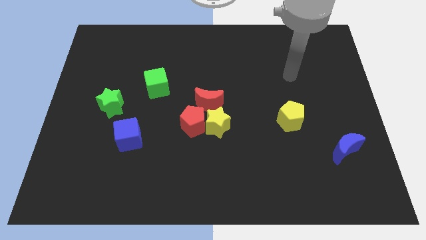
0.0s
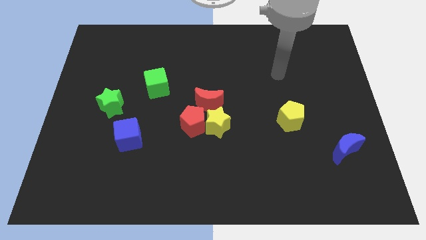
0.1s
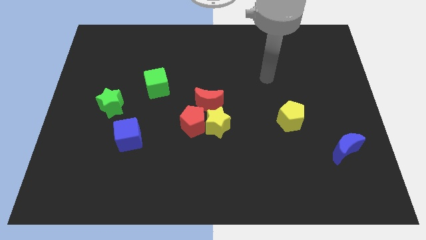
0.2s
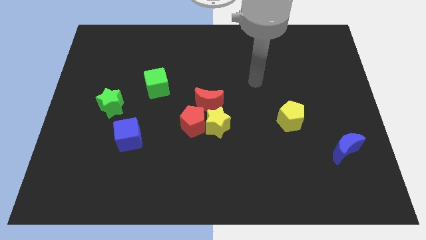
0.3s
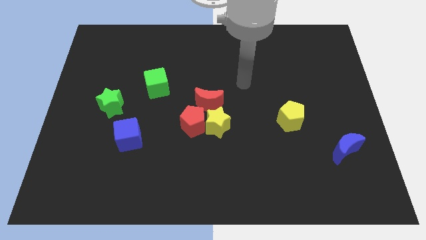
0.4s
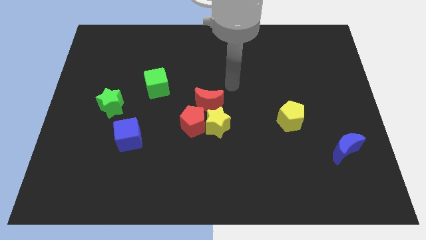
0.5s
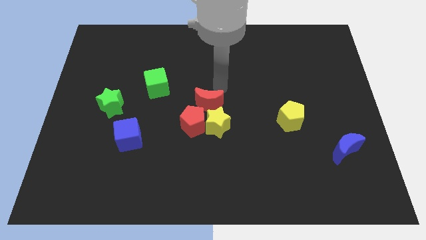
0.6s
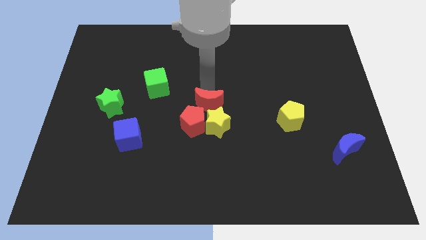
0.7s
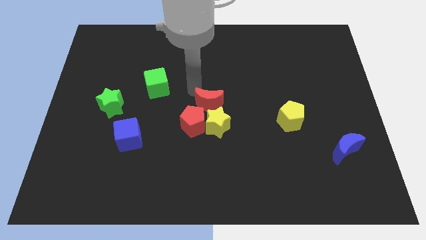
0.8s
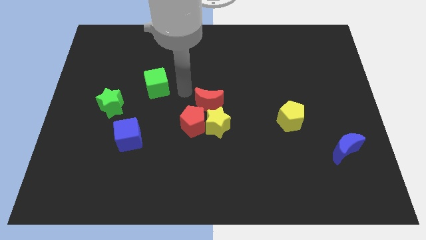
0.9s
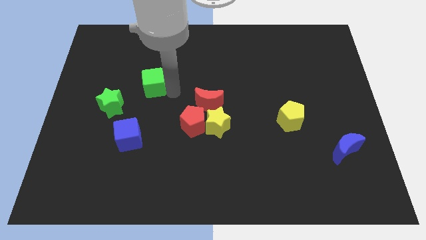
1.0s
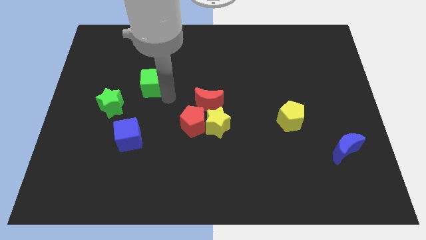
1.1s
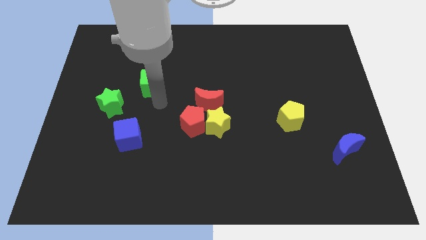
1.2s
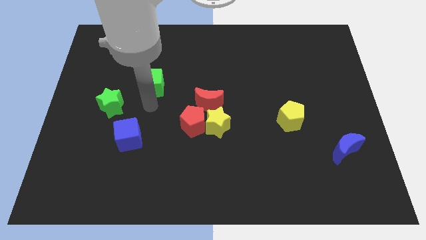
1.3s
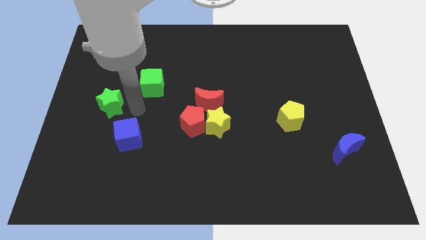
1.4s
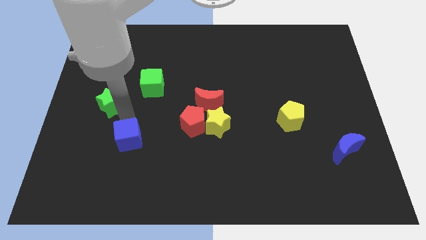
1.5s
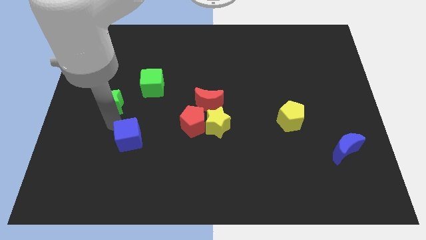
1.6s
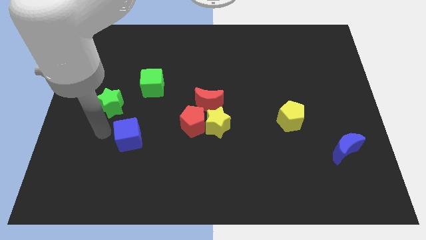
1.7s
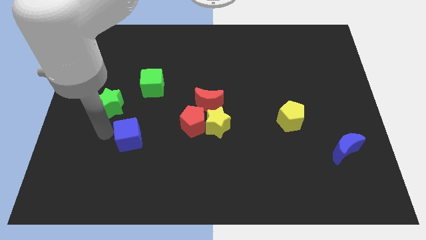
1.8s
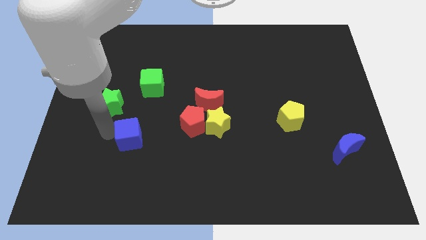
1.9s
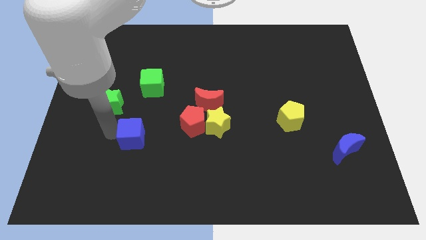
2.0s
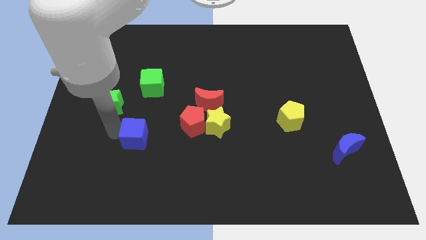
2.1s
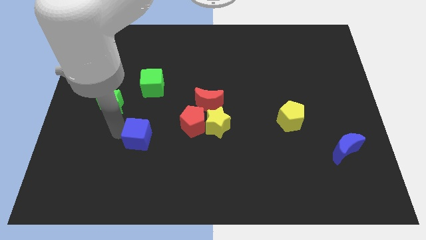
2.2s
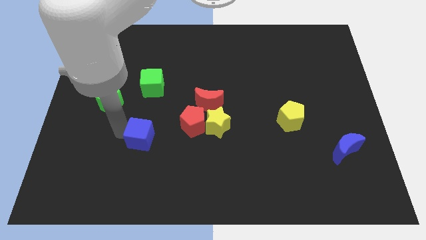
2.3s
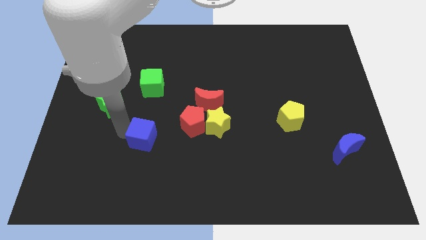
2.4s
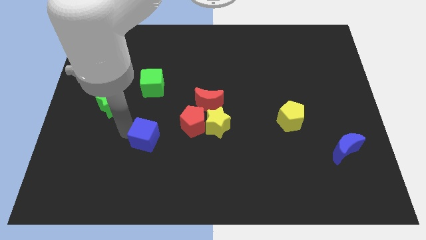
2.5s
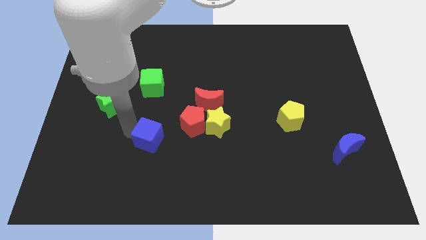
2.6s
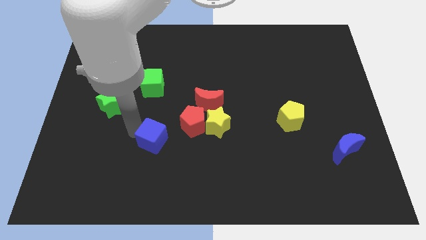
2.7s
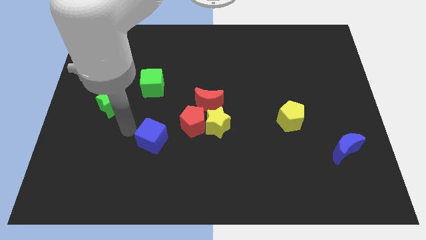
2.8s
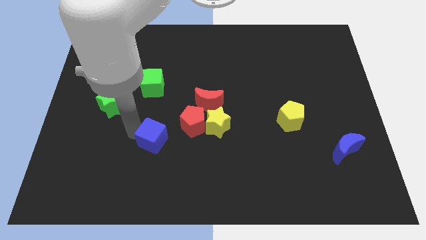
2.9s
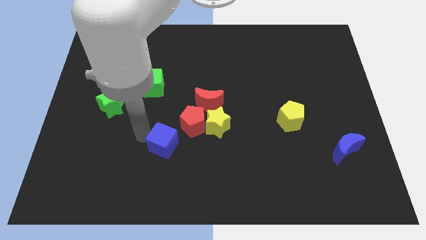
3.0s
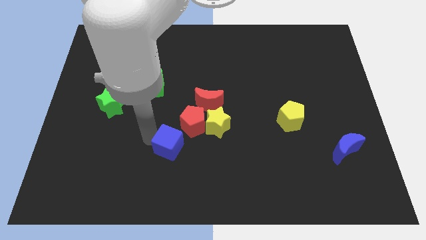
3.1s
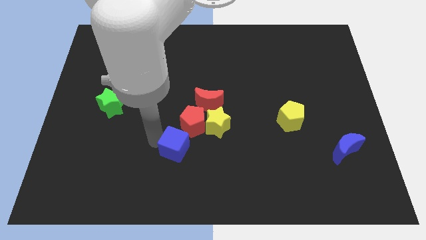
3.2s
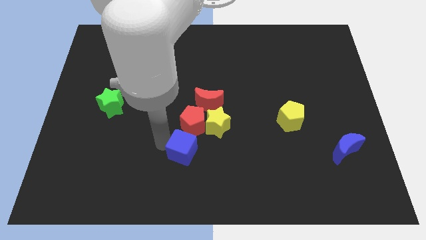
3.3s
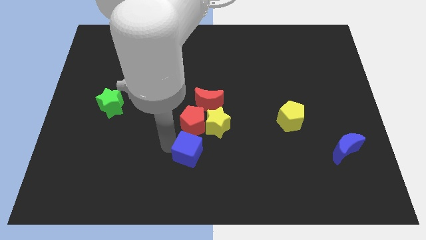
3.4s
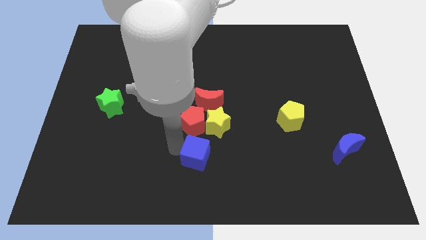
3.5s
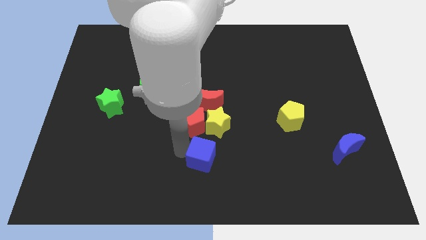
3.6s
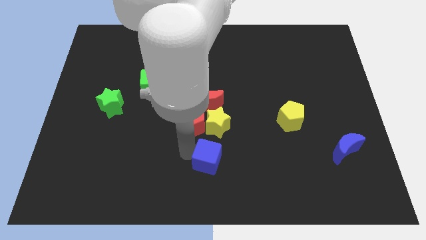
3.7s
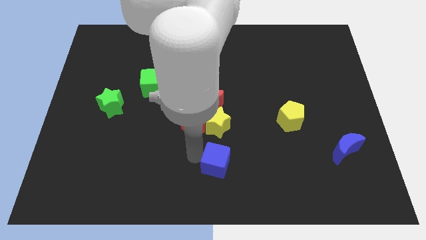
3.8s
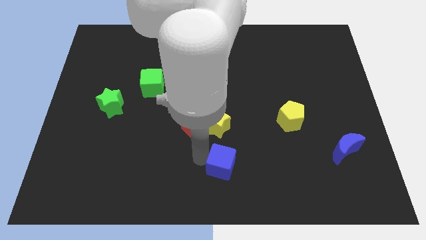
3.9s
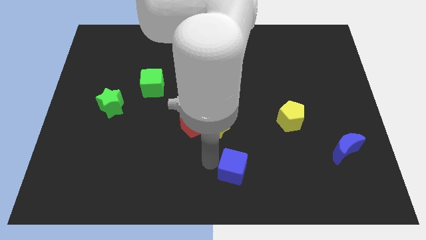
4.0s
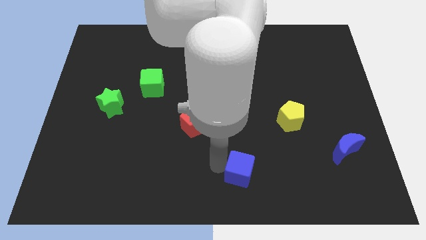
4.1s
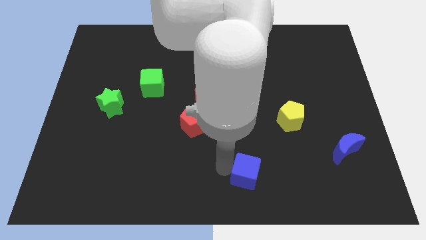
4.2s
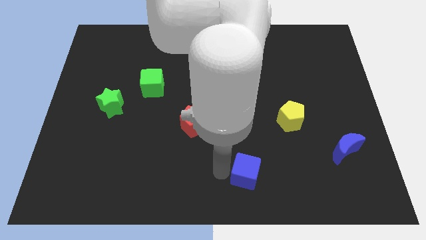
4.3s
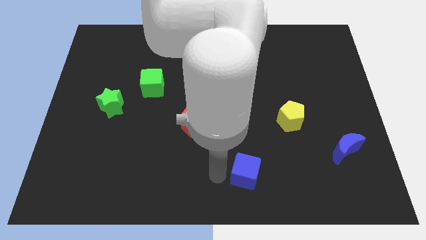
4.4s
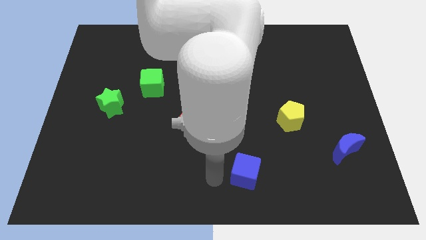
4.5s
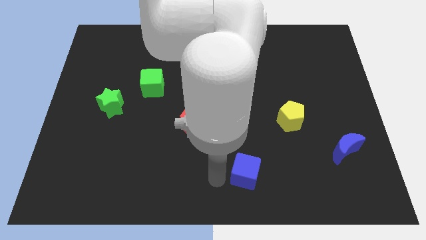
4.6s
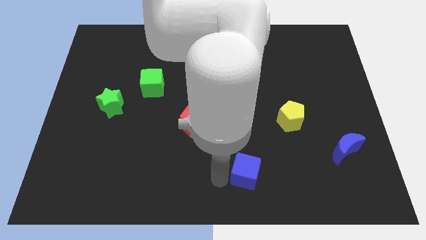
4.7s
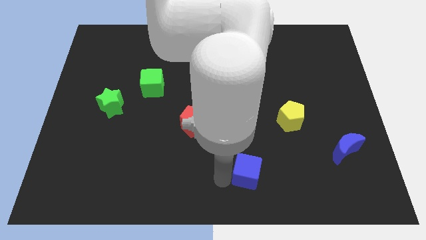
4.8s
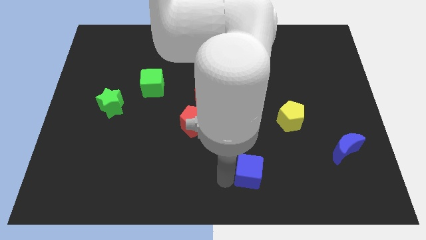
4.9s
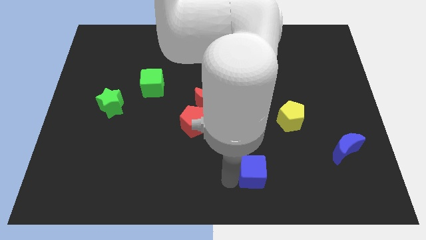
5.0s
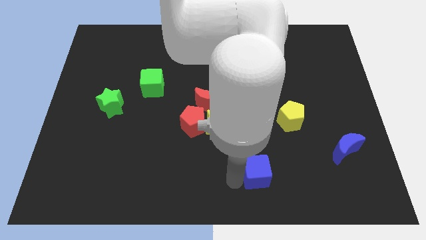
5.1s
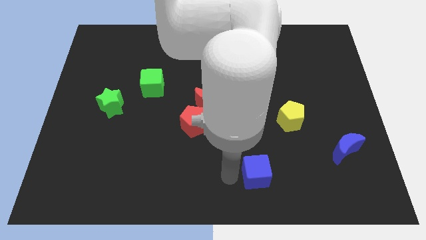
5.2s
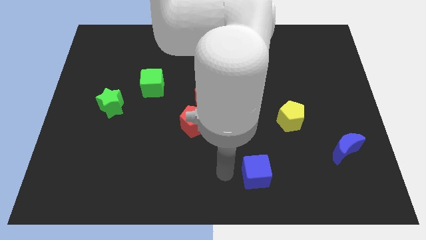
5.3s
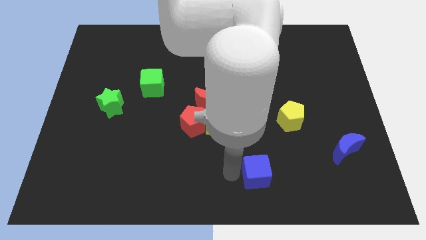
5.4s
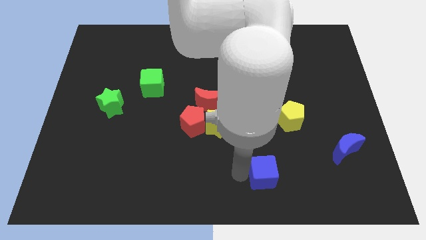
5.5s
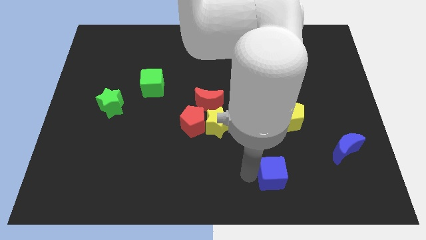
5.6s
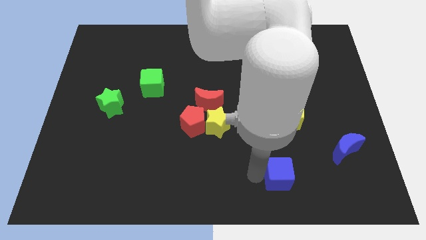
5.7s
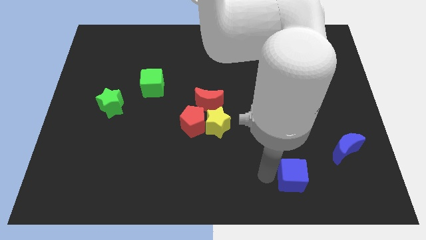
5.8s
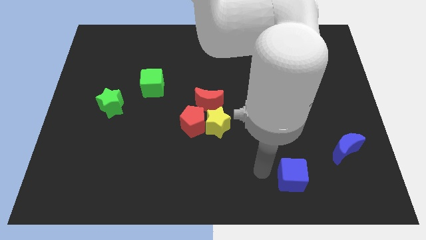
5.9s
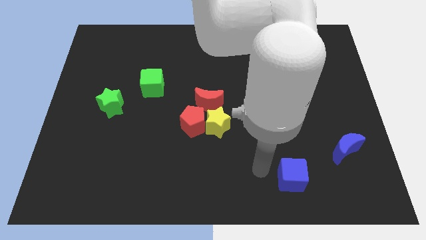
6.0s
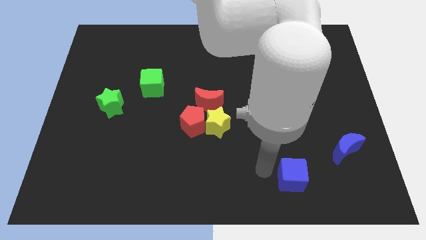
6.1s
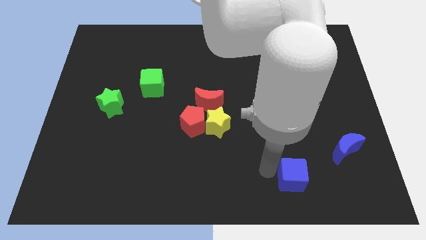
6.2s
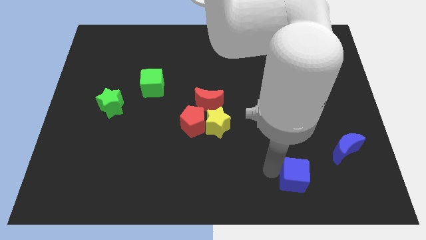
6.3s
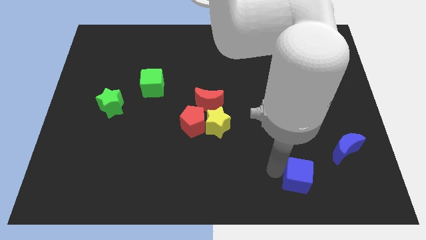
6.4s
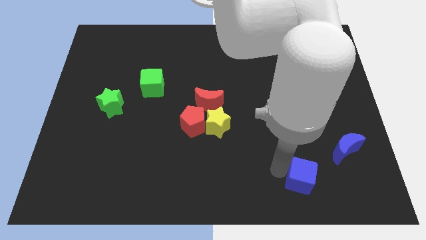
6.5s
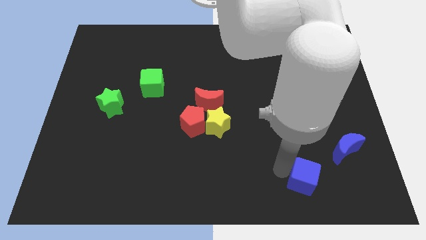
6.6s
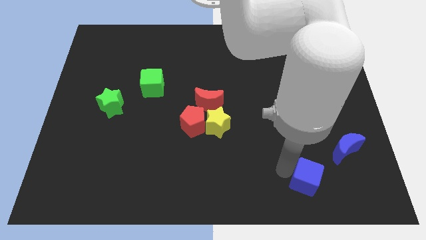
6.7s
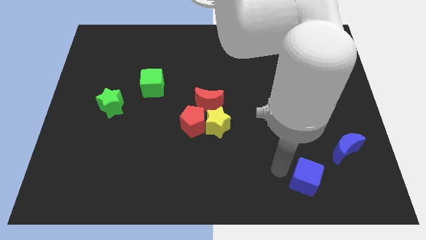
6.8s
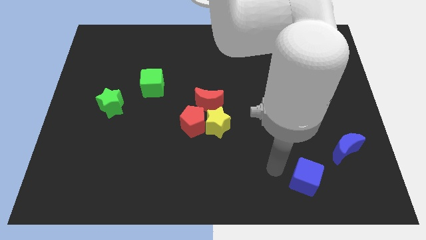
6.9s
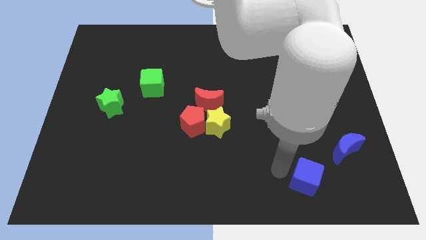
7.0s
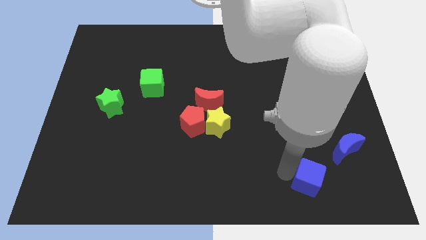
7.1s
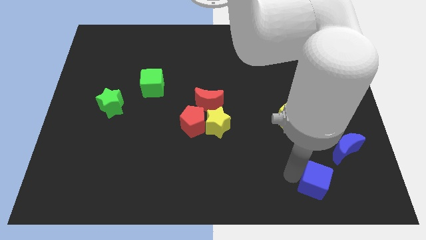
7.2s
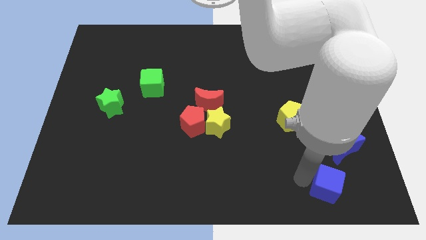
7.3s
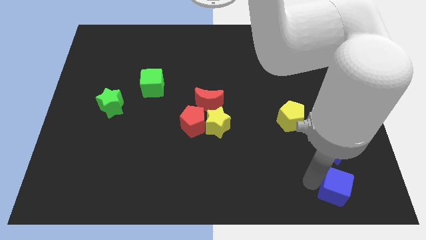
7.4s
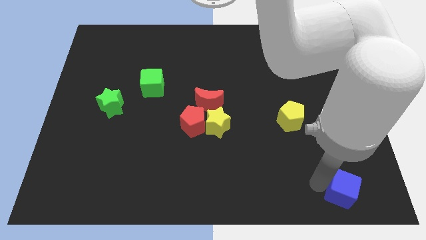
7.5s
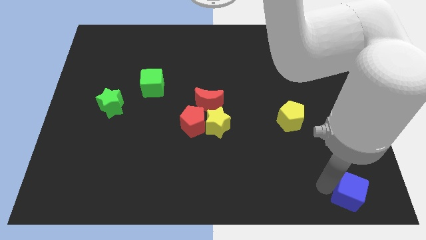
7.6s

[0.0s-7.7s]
move the blue cube to the bottom right
